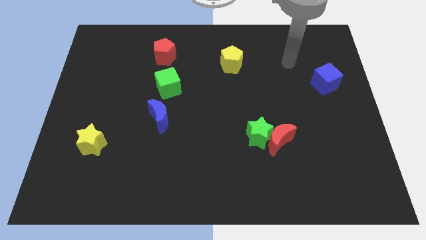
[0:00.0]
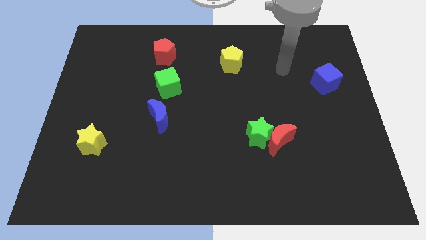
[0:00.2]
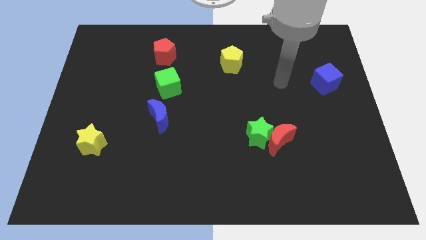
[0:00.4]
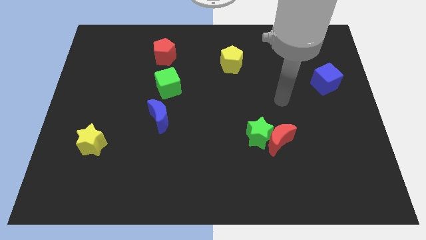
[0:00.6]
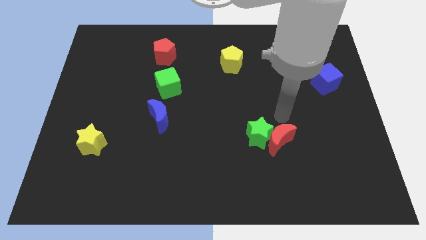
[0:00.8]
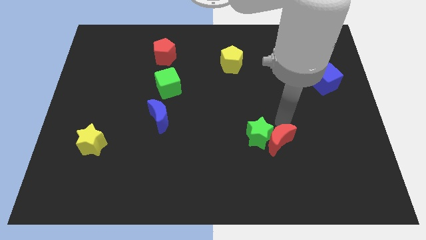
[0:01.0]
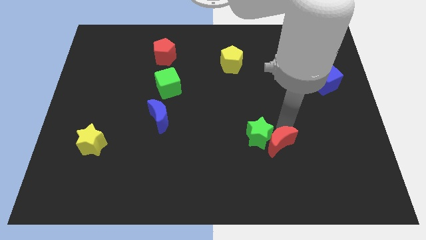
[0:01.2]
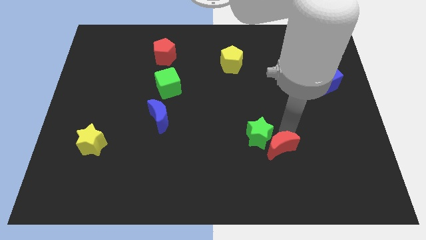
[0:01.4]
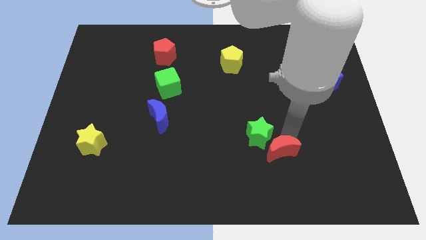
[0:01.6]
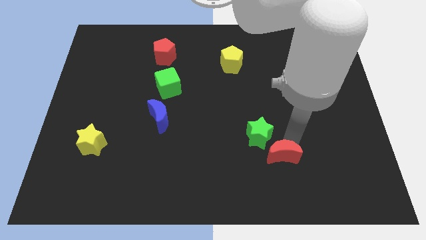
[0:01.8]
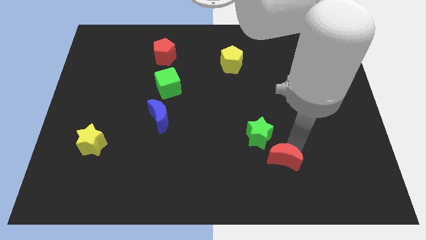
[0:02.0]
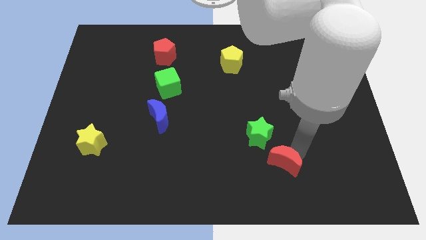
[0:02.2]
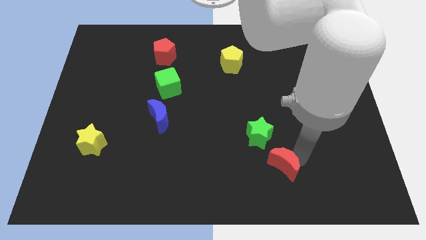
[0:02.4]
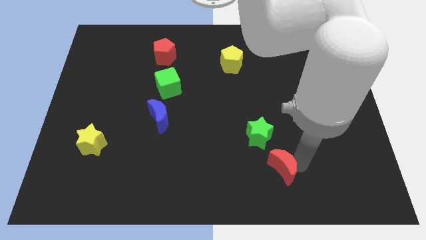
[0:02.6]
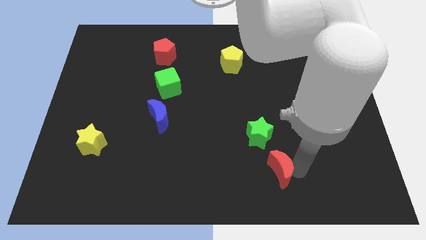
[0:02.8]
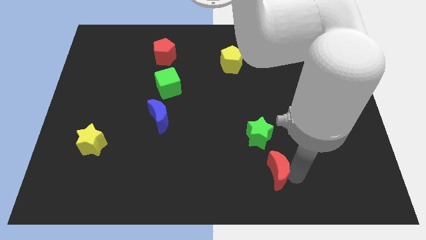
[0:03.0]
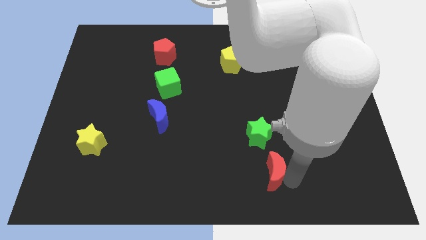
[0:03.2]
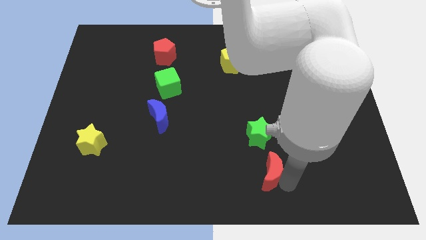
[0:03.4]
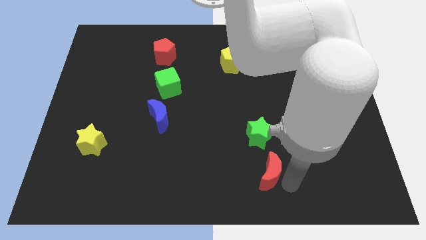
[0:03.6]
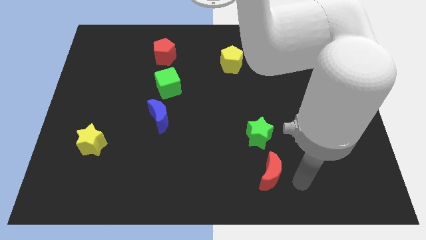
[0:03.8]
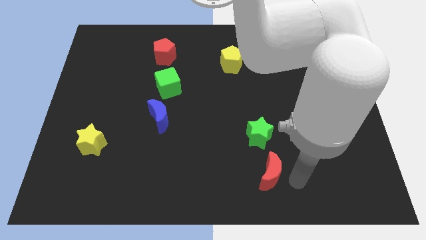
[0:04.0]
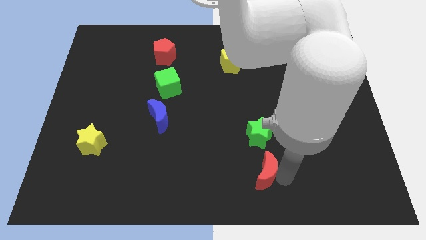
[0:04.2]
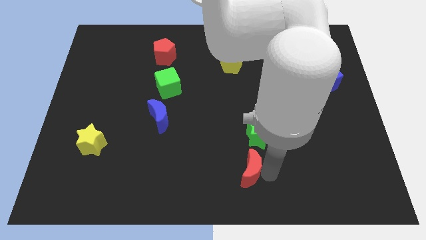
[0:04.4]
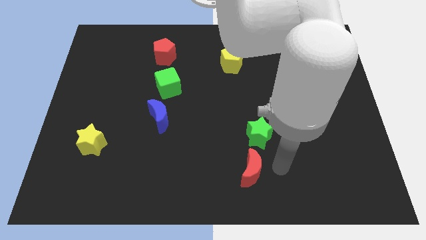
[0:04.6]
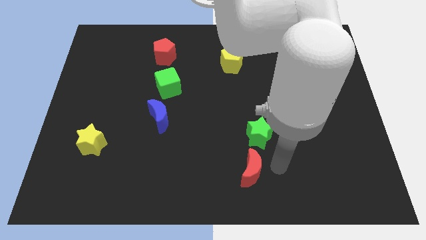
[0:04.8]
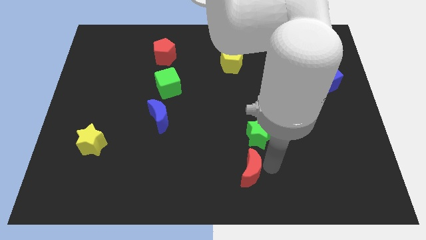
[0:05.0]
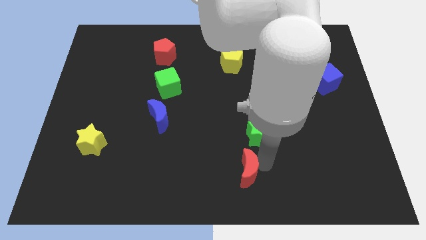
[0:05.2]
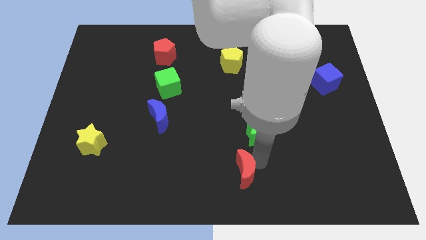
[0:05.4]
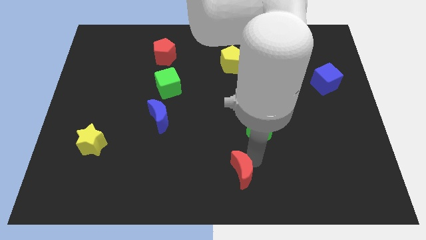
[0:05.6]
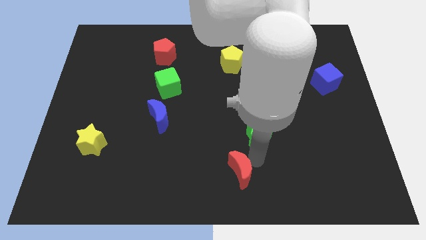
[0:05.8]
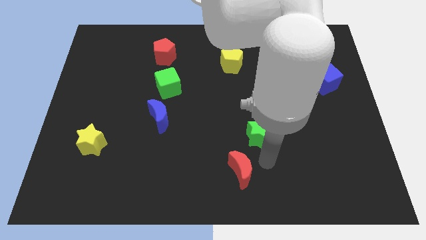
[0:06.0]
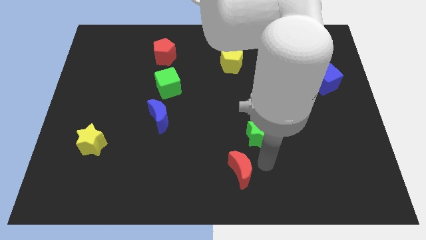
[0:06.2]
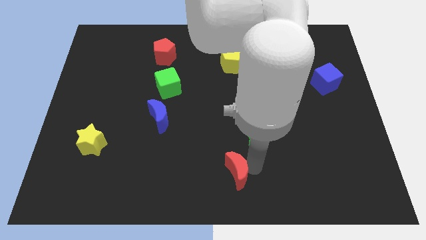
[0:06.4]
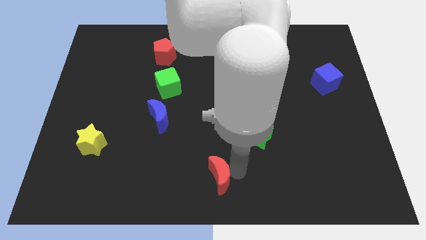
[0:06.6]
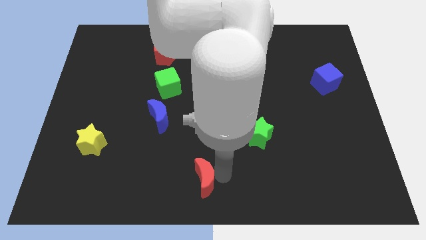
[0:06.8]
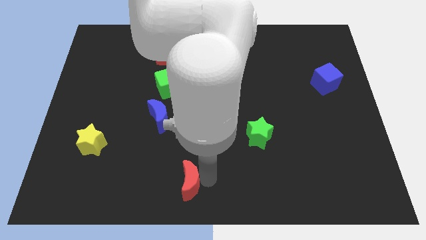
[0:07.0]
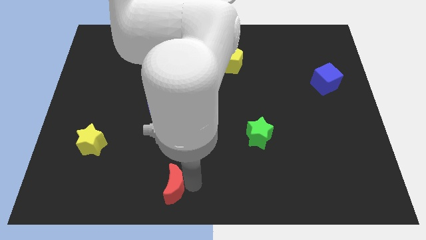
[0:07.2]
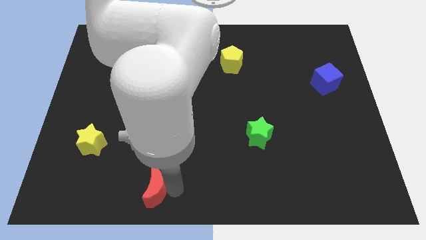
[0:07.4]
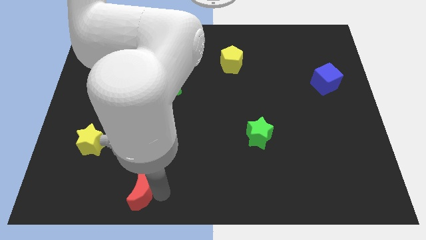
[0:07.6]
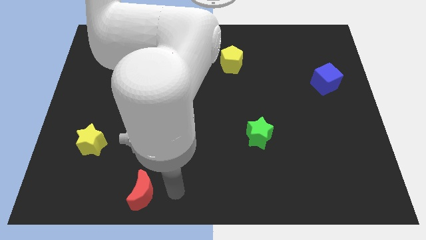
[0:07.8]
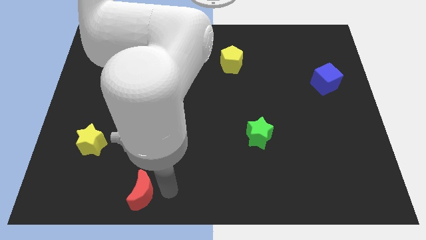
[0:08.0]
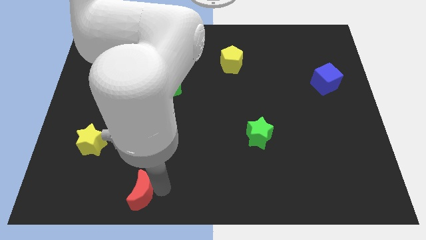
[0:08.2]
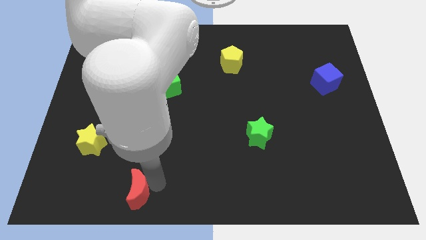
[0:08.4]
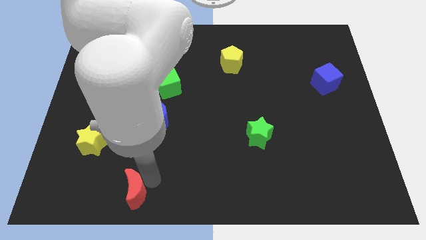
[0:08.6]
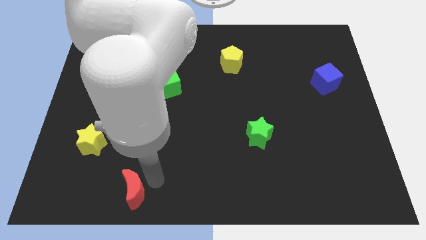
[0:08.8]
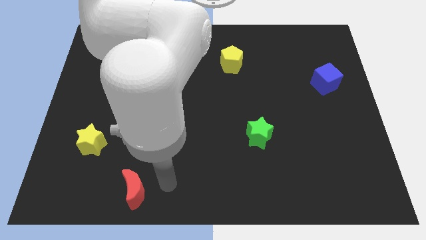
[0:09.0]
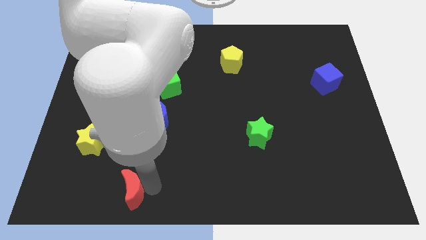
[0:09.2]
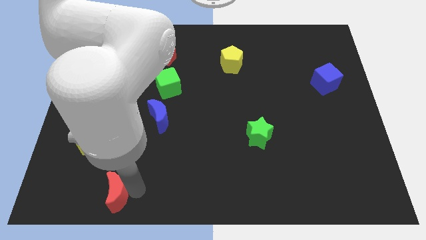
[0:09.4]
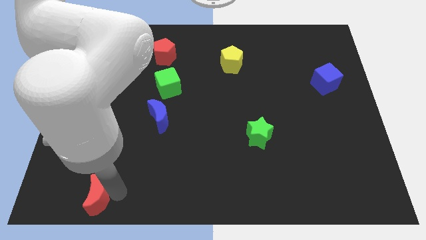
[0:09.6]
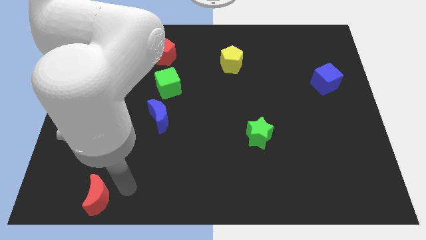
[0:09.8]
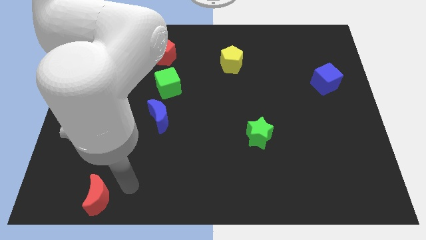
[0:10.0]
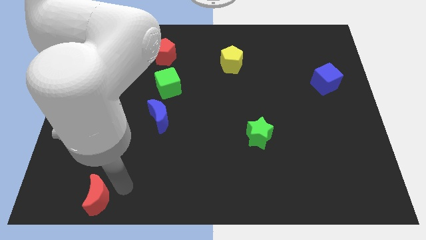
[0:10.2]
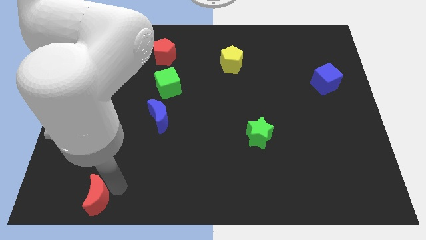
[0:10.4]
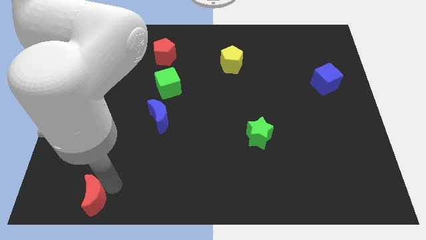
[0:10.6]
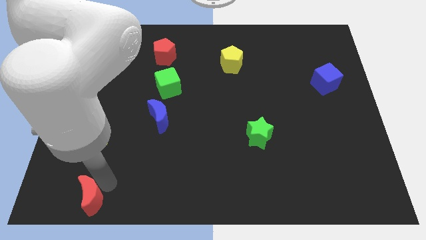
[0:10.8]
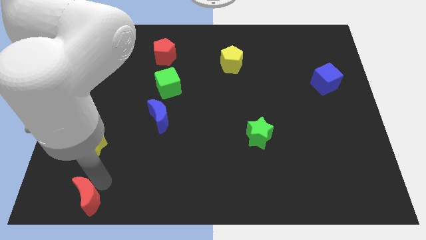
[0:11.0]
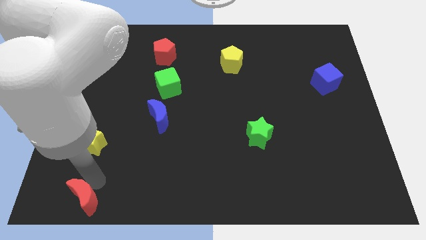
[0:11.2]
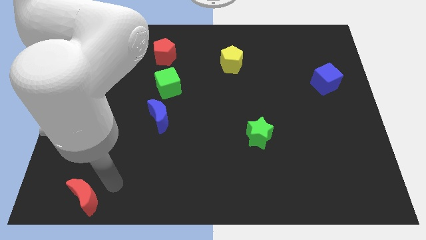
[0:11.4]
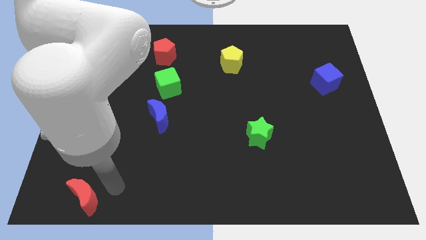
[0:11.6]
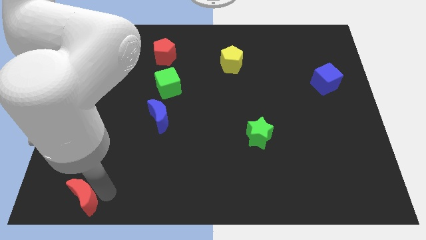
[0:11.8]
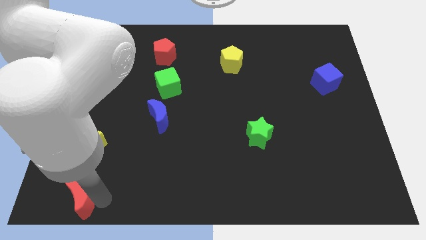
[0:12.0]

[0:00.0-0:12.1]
put the red moon to the lower left corner
